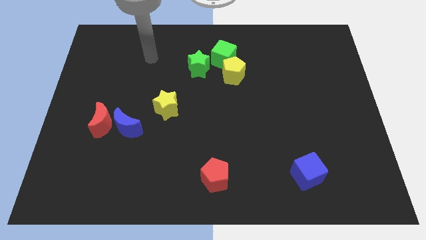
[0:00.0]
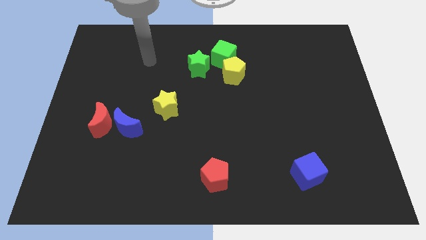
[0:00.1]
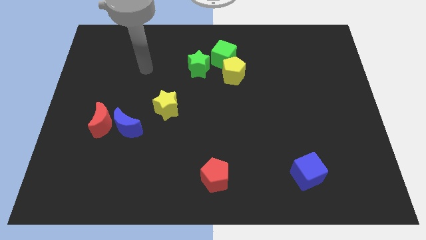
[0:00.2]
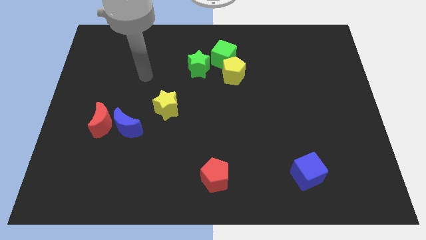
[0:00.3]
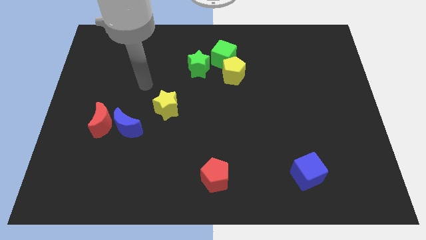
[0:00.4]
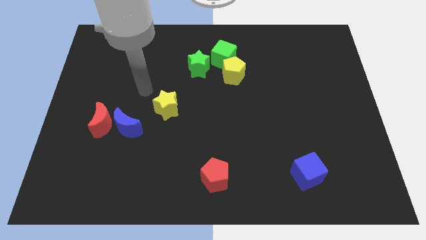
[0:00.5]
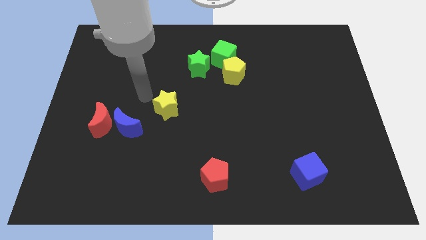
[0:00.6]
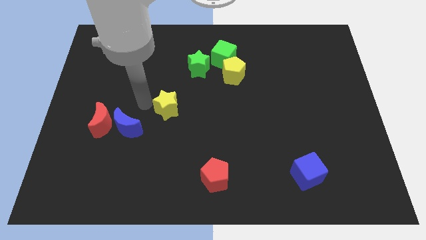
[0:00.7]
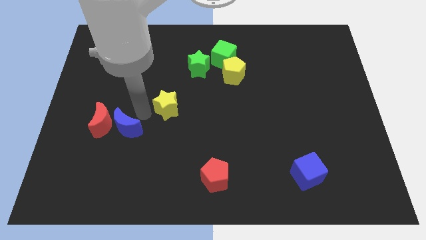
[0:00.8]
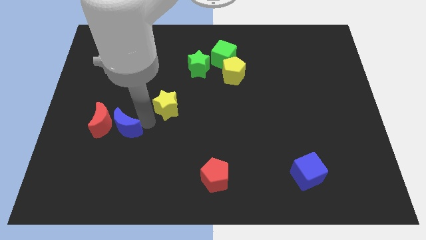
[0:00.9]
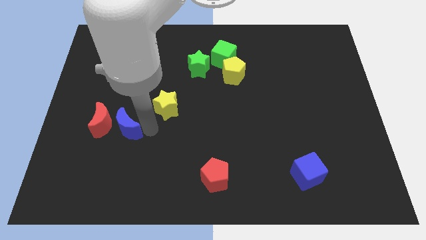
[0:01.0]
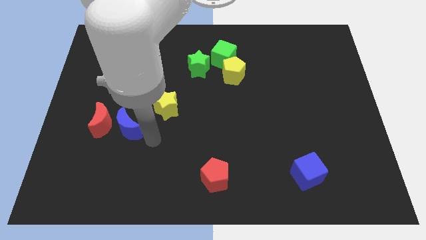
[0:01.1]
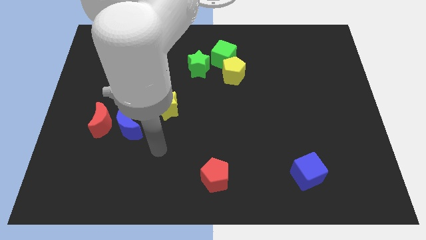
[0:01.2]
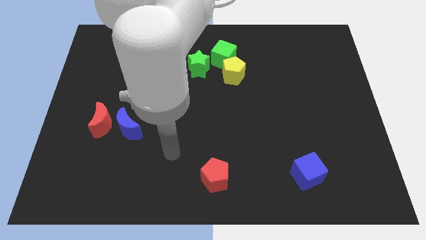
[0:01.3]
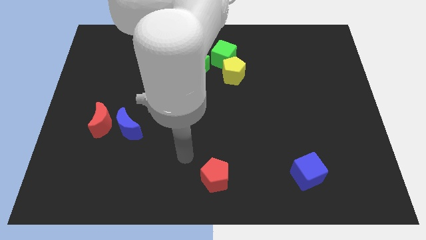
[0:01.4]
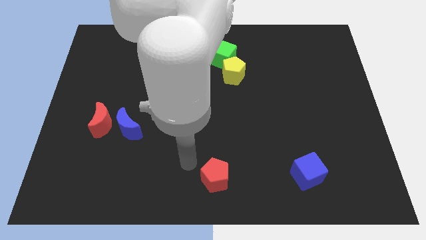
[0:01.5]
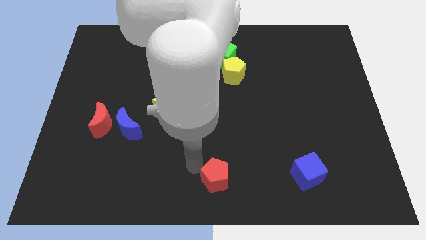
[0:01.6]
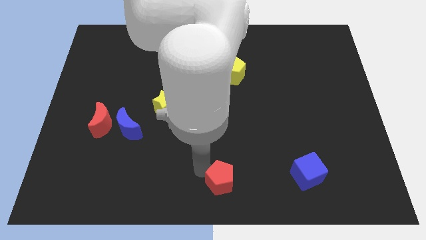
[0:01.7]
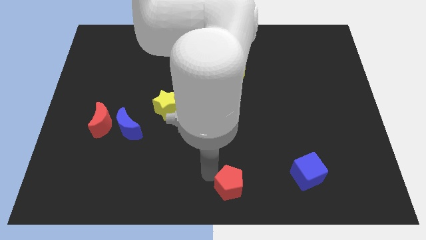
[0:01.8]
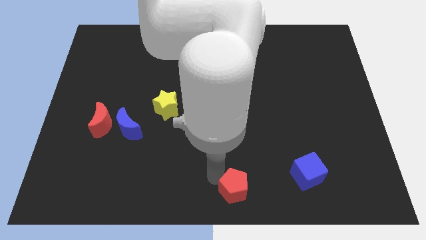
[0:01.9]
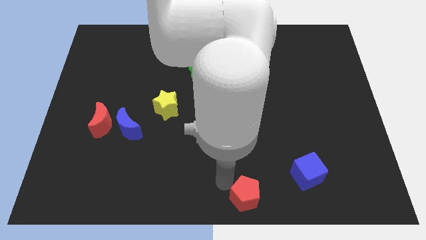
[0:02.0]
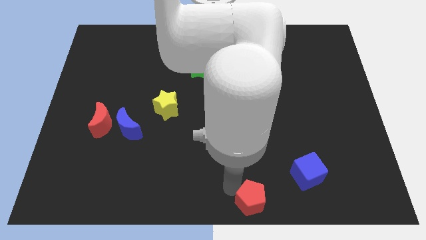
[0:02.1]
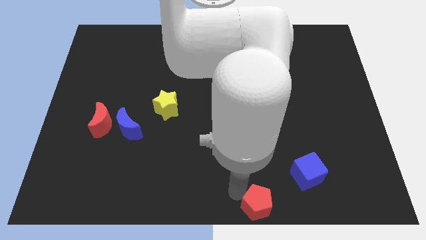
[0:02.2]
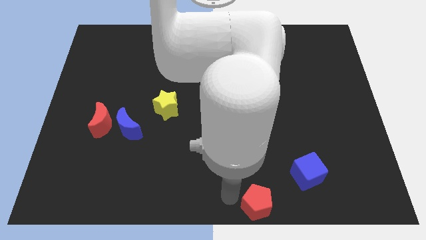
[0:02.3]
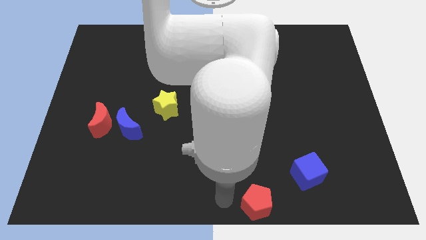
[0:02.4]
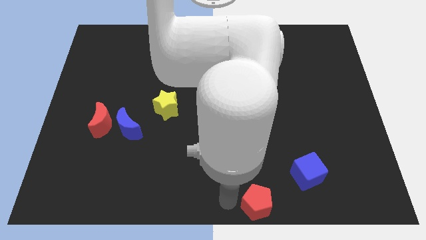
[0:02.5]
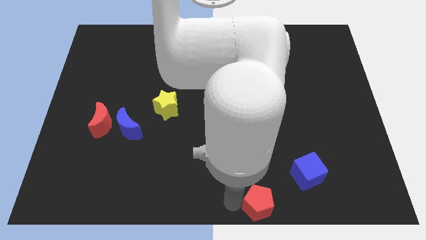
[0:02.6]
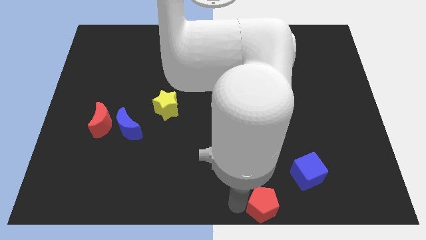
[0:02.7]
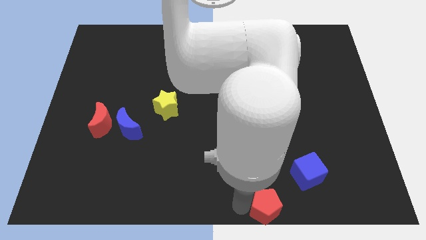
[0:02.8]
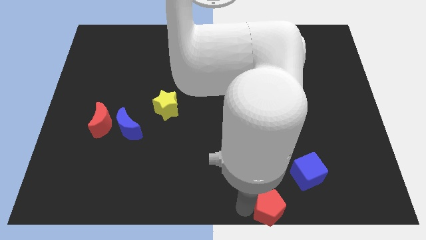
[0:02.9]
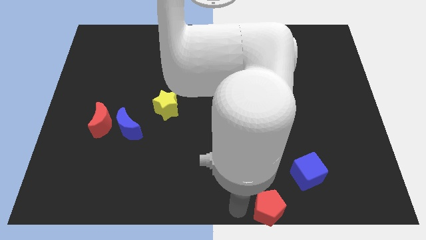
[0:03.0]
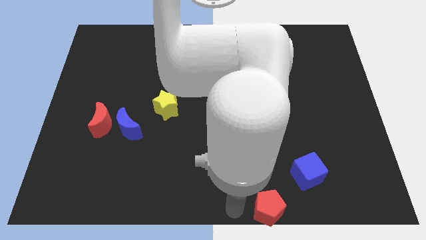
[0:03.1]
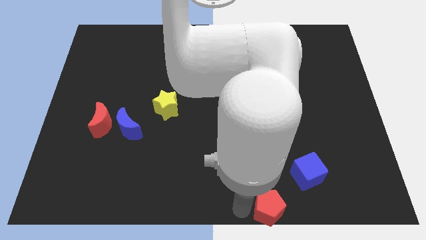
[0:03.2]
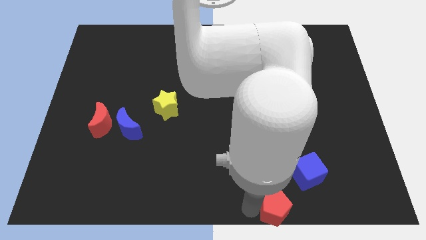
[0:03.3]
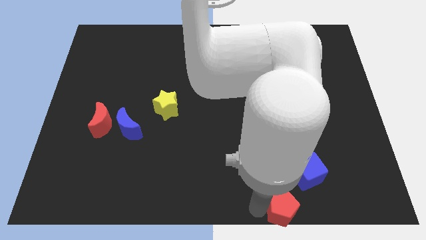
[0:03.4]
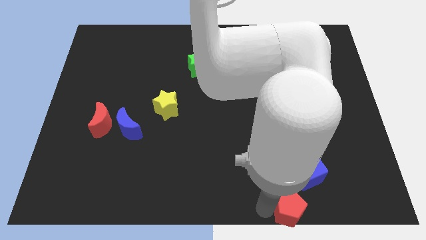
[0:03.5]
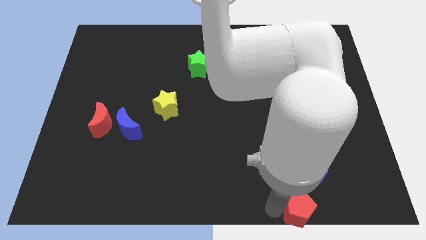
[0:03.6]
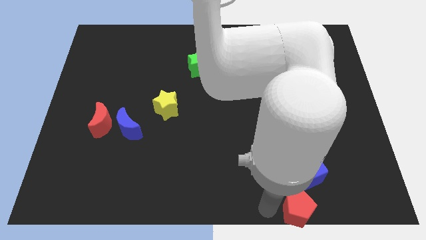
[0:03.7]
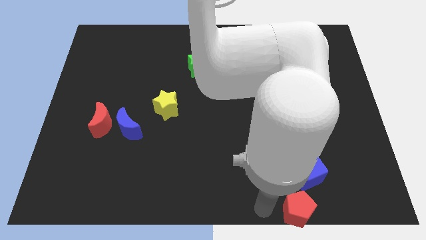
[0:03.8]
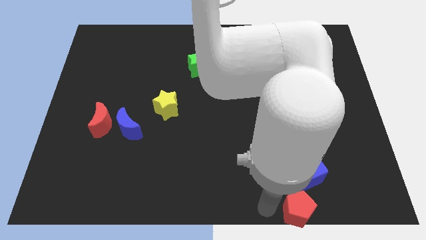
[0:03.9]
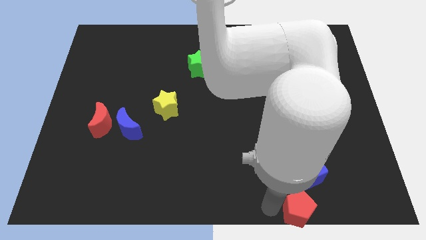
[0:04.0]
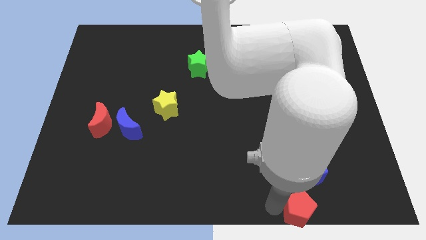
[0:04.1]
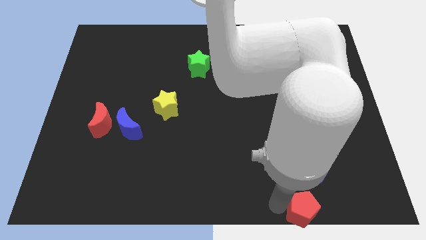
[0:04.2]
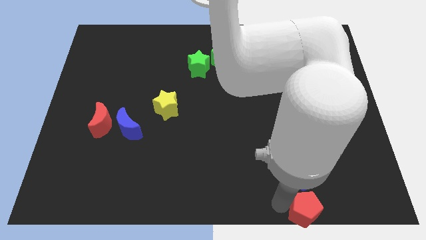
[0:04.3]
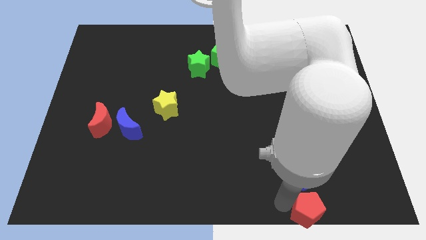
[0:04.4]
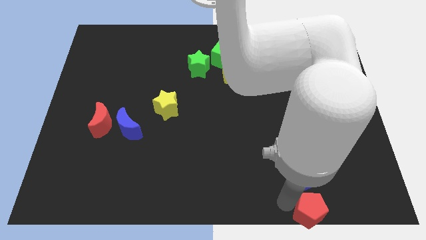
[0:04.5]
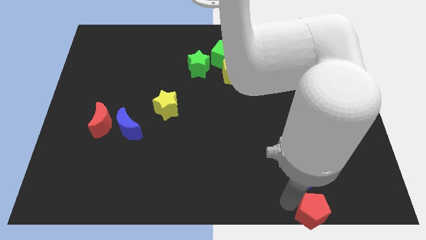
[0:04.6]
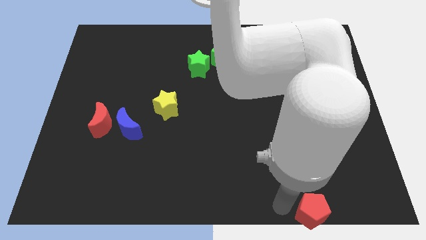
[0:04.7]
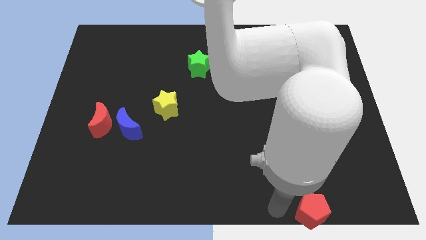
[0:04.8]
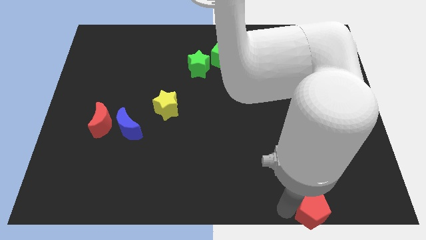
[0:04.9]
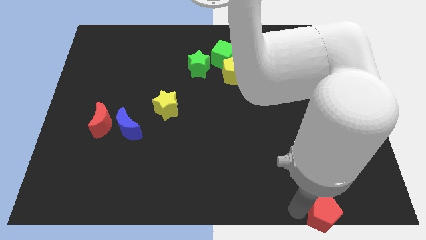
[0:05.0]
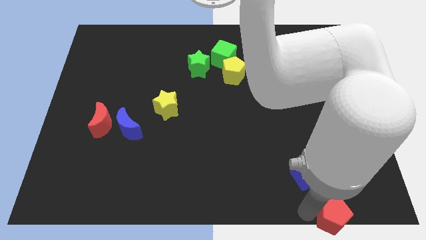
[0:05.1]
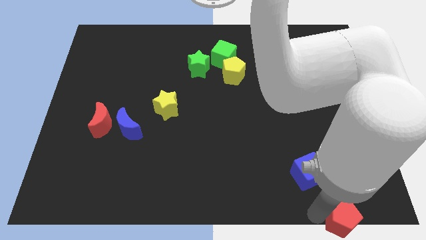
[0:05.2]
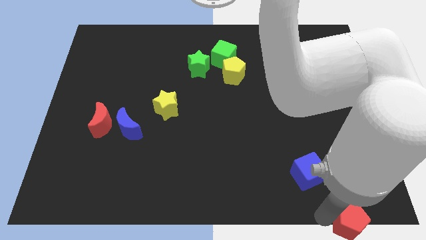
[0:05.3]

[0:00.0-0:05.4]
put the red pentagon to the bottom right corner

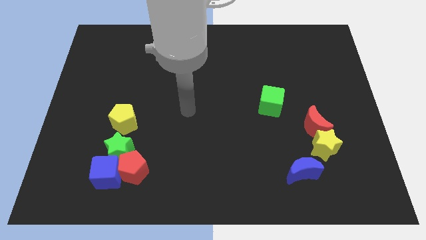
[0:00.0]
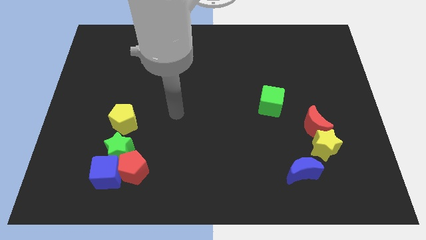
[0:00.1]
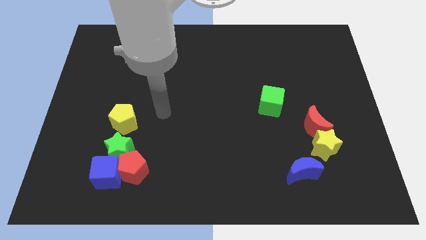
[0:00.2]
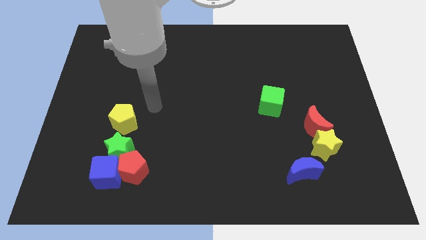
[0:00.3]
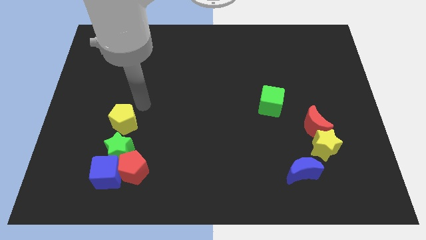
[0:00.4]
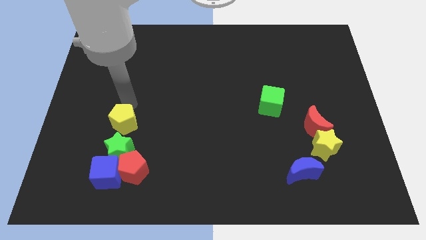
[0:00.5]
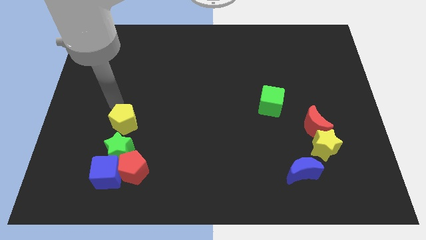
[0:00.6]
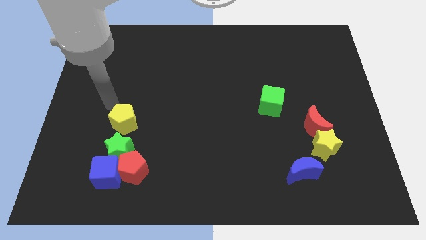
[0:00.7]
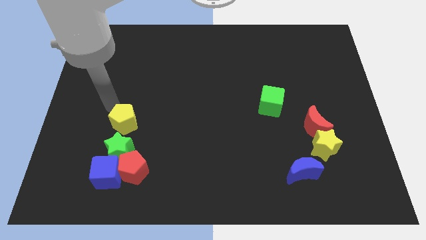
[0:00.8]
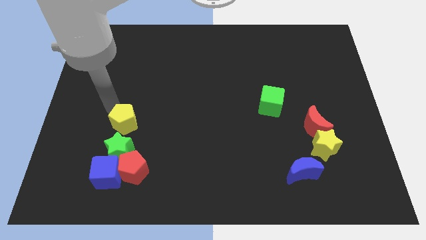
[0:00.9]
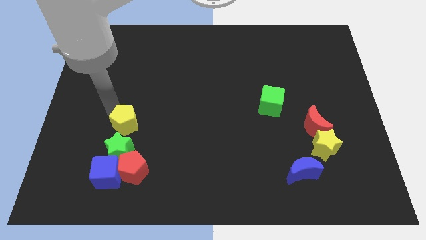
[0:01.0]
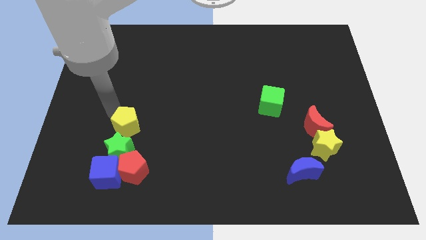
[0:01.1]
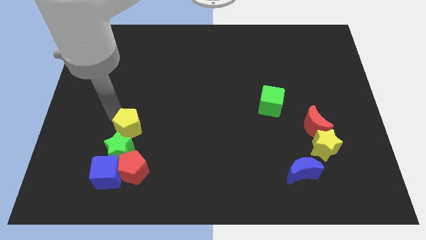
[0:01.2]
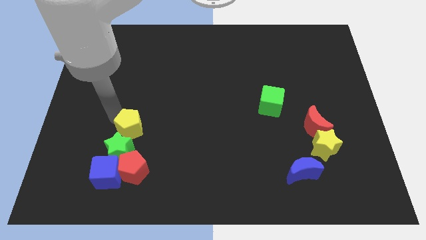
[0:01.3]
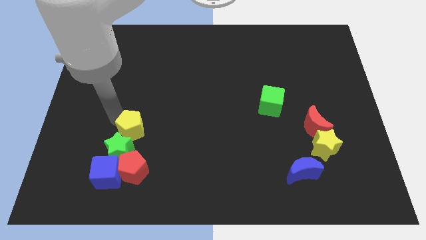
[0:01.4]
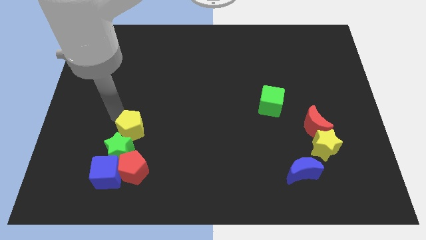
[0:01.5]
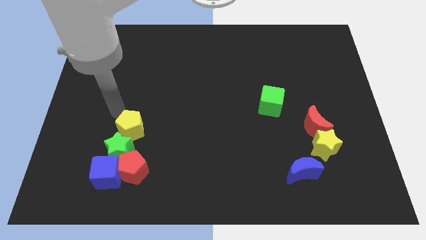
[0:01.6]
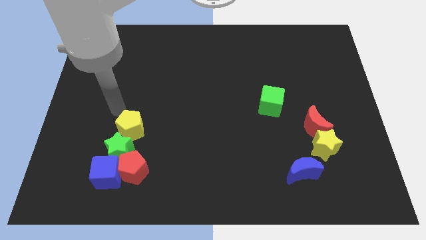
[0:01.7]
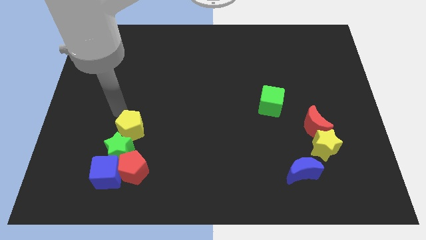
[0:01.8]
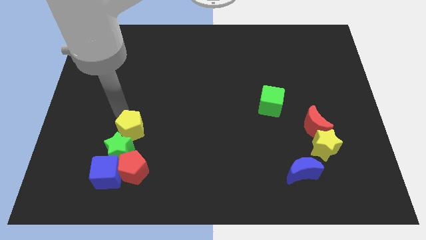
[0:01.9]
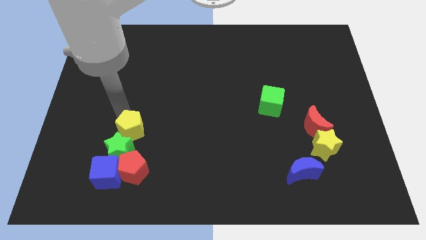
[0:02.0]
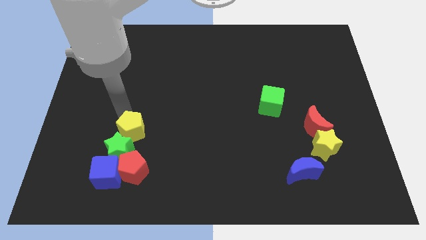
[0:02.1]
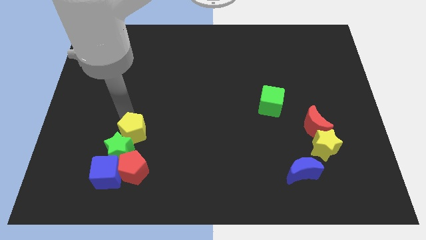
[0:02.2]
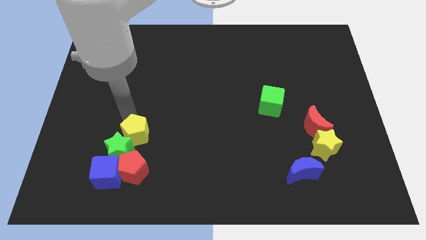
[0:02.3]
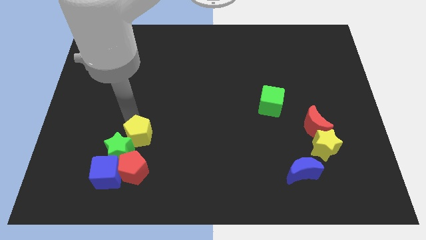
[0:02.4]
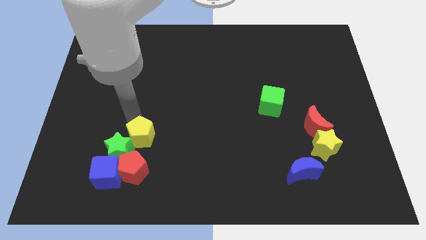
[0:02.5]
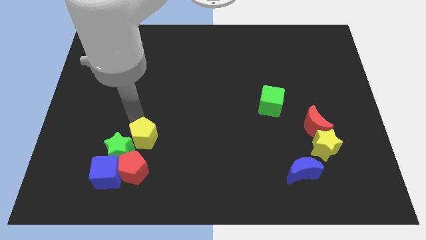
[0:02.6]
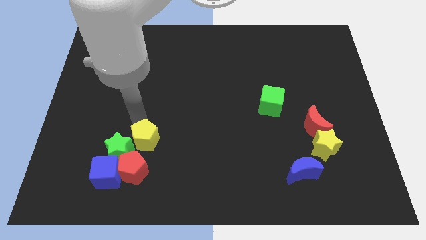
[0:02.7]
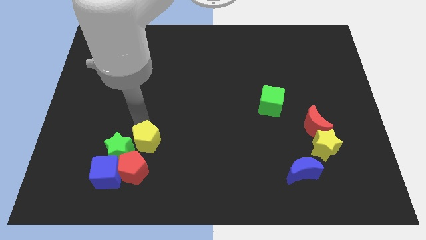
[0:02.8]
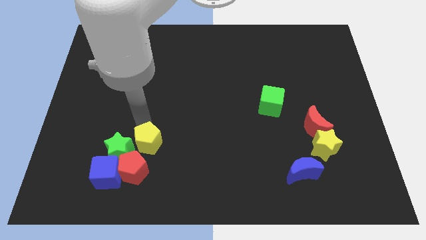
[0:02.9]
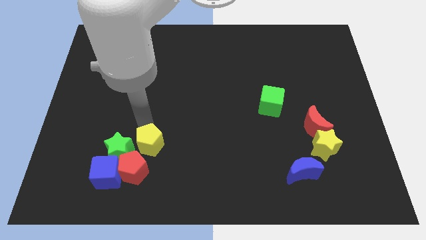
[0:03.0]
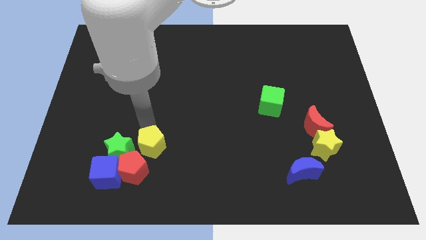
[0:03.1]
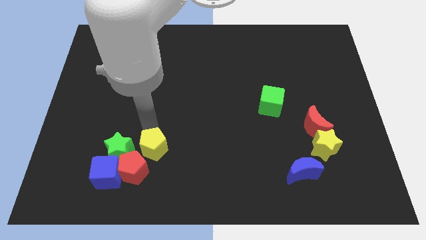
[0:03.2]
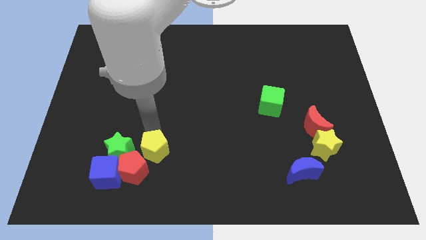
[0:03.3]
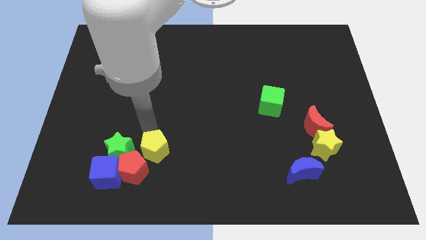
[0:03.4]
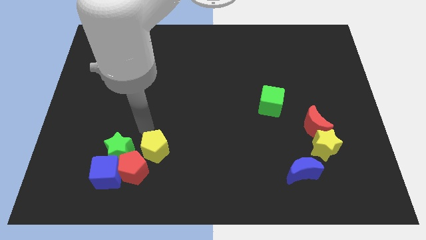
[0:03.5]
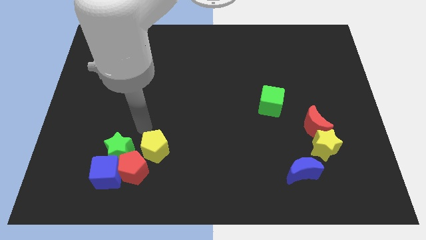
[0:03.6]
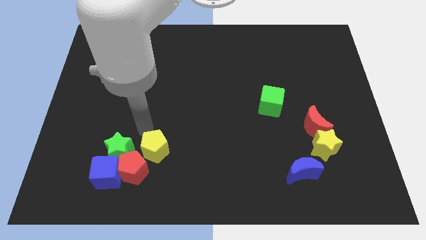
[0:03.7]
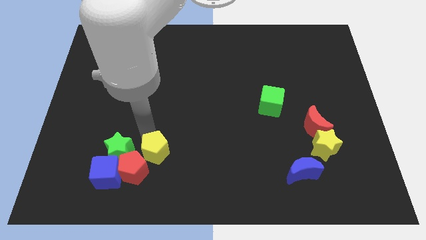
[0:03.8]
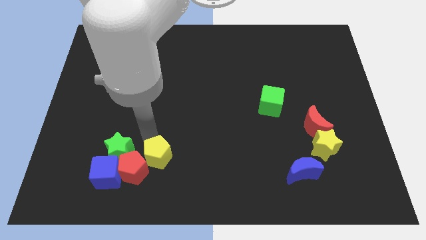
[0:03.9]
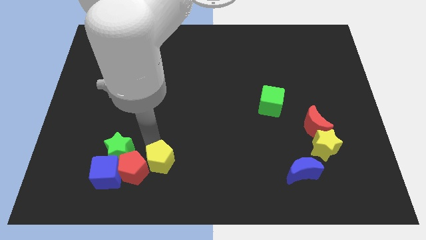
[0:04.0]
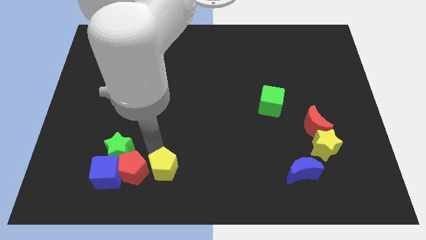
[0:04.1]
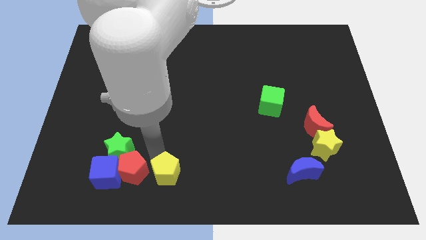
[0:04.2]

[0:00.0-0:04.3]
slide the yellow pentagon to the bottom
